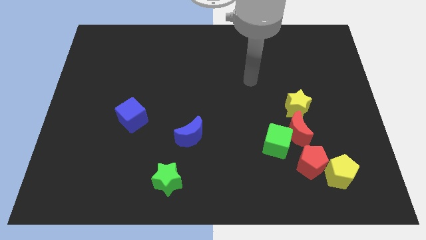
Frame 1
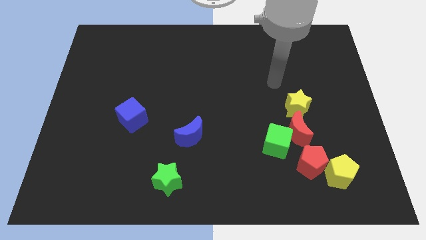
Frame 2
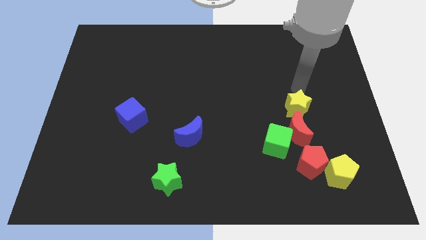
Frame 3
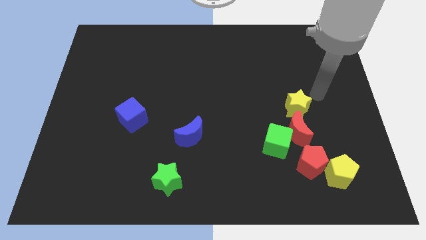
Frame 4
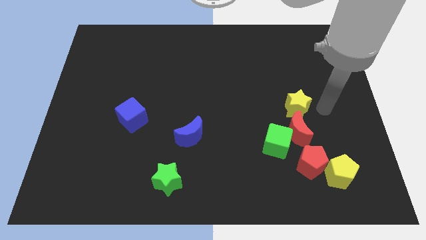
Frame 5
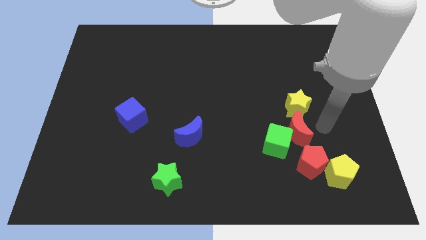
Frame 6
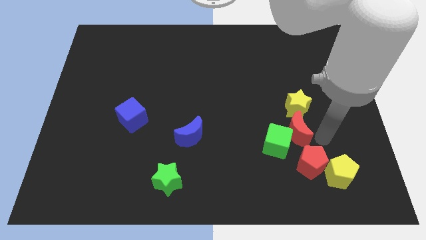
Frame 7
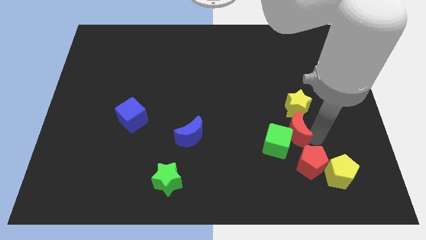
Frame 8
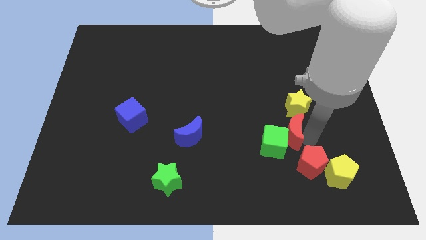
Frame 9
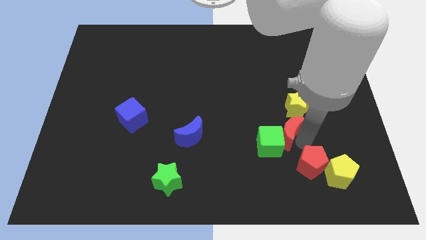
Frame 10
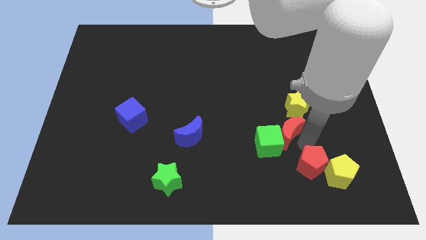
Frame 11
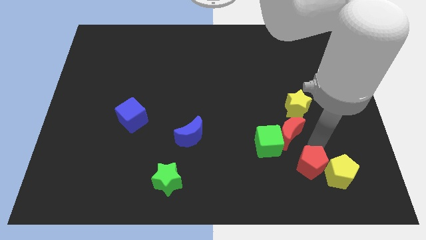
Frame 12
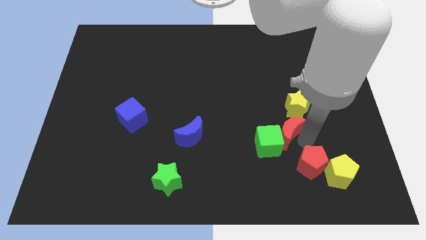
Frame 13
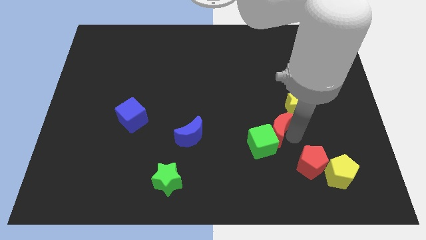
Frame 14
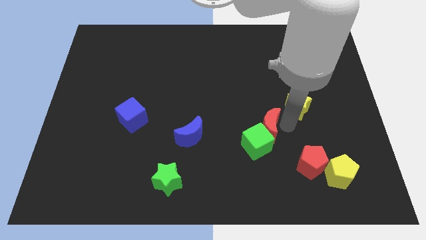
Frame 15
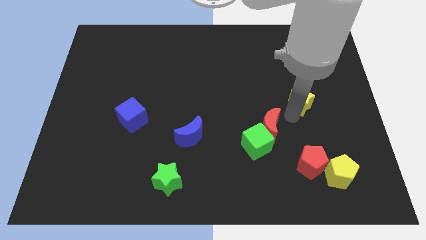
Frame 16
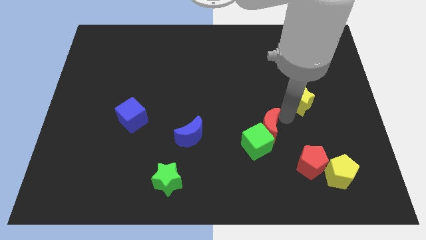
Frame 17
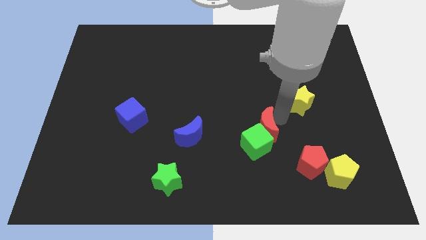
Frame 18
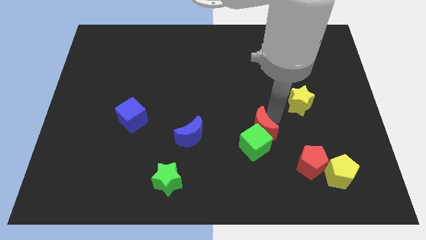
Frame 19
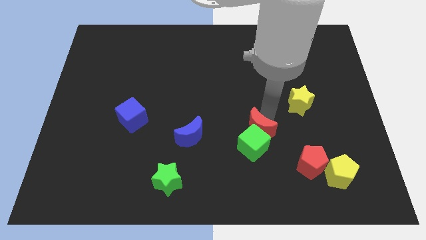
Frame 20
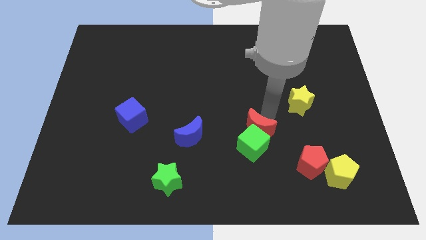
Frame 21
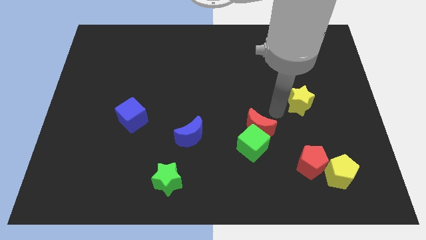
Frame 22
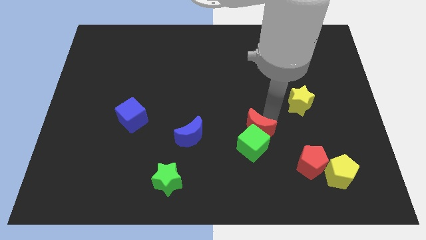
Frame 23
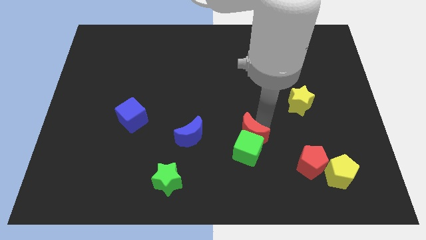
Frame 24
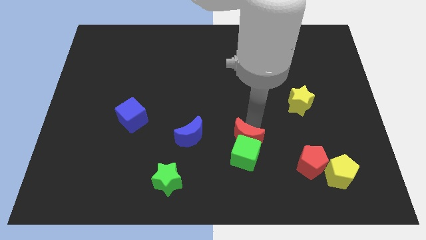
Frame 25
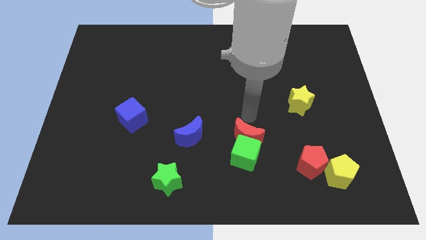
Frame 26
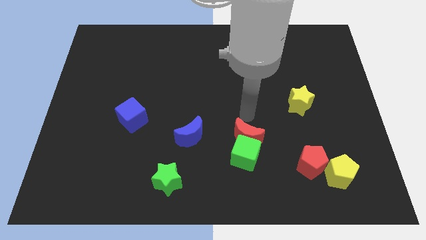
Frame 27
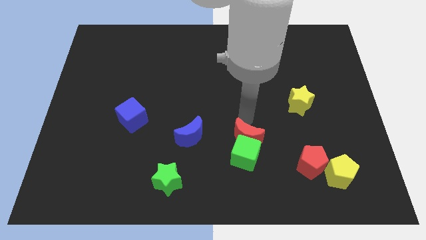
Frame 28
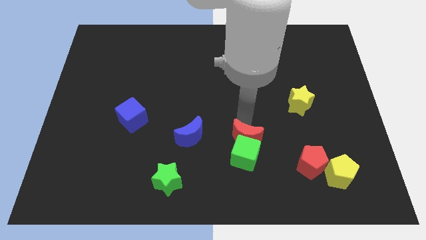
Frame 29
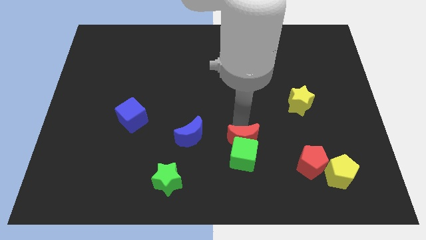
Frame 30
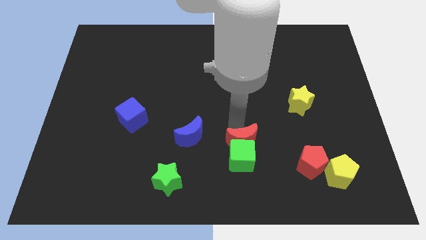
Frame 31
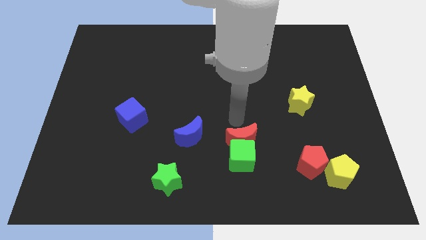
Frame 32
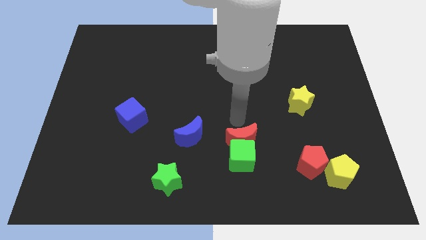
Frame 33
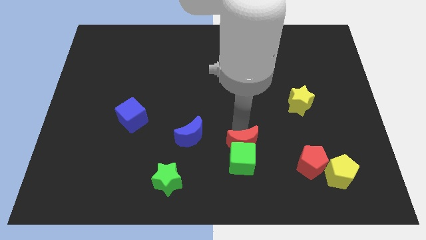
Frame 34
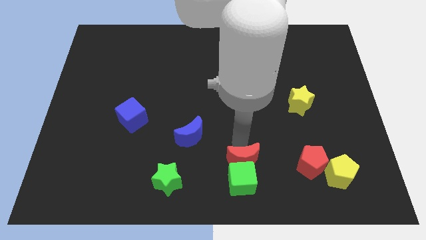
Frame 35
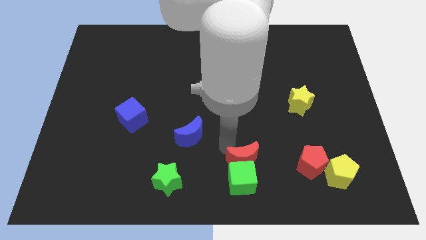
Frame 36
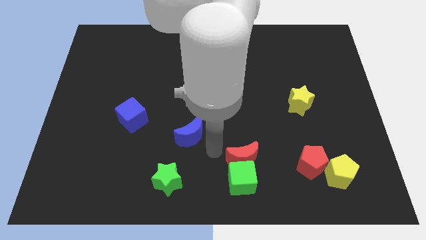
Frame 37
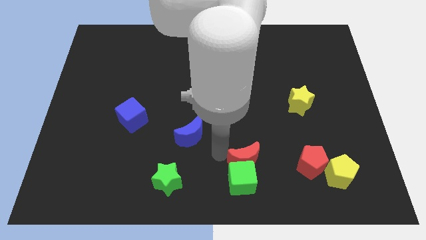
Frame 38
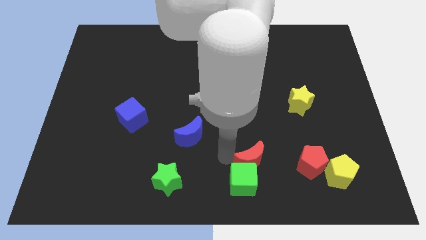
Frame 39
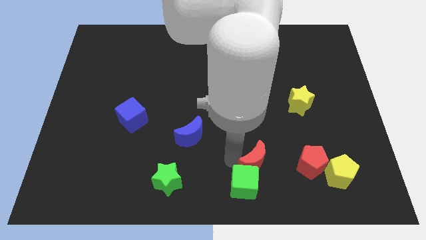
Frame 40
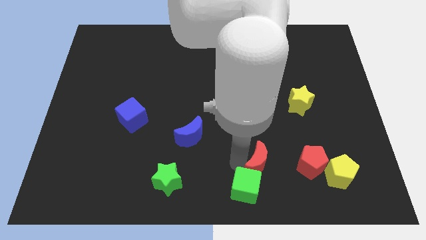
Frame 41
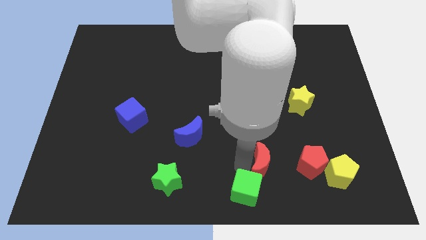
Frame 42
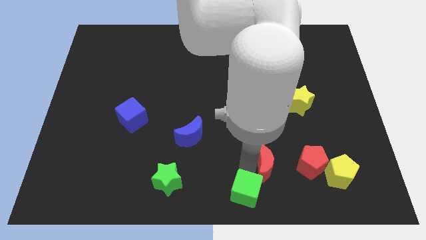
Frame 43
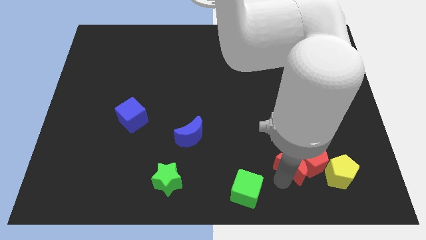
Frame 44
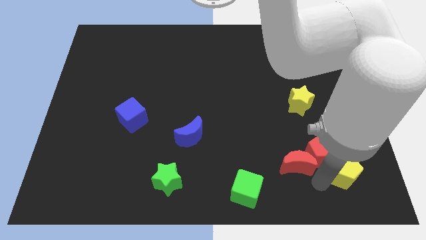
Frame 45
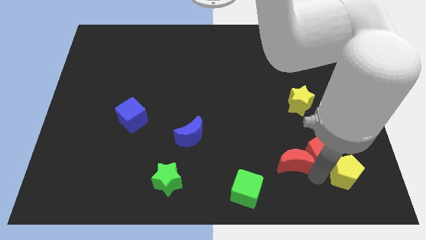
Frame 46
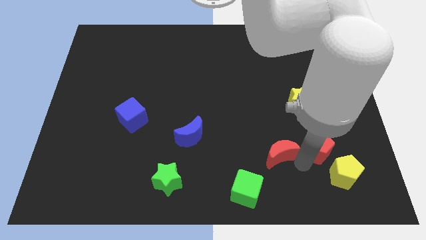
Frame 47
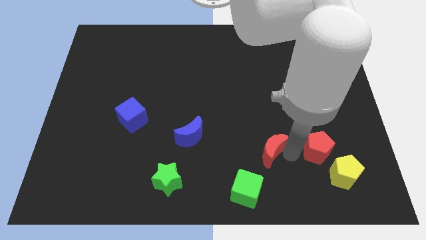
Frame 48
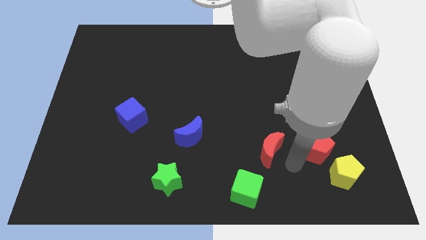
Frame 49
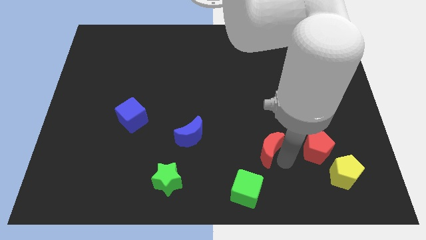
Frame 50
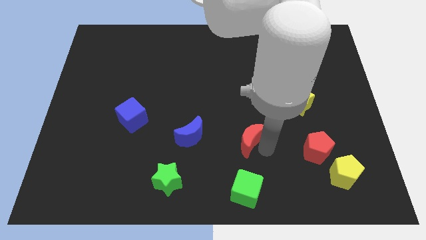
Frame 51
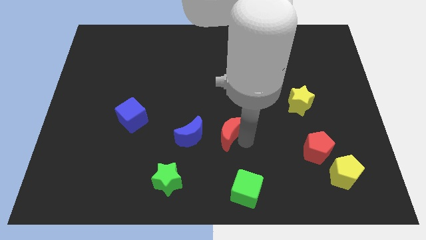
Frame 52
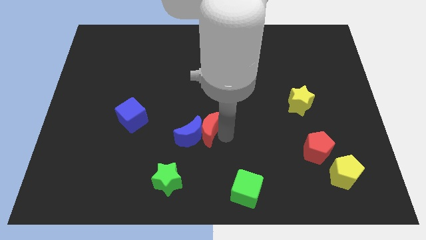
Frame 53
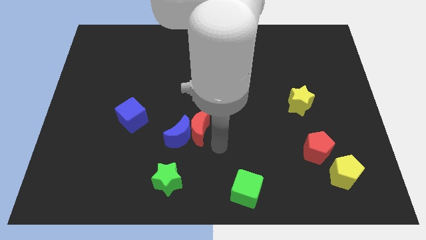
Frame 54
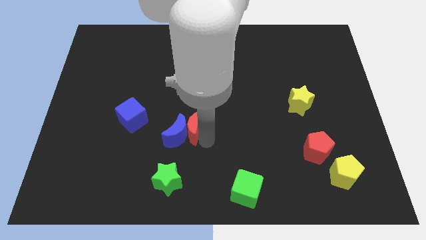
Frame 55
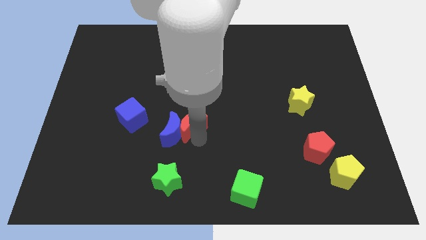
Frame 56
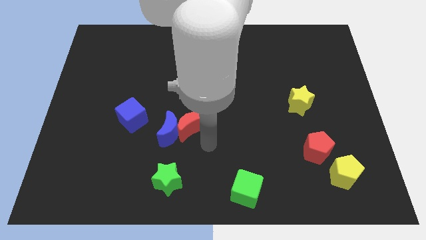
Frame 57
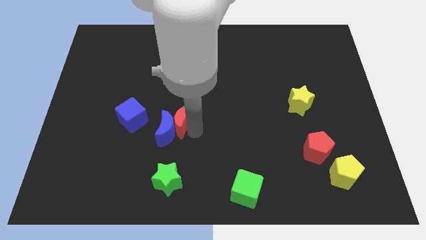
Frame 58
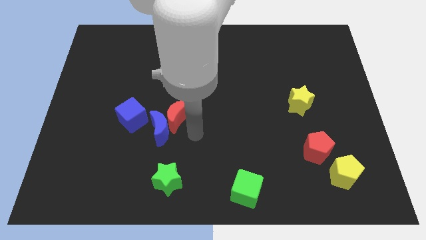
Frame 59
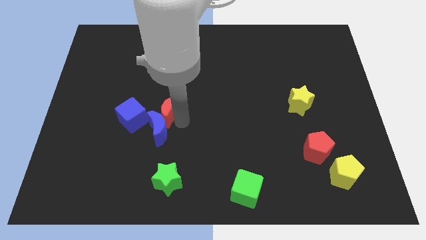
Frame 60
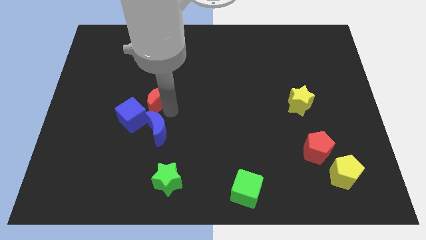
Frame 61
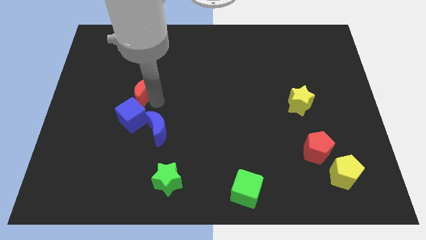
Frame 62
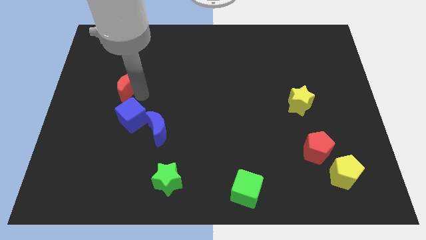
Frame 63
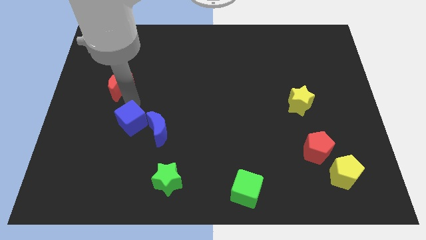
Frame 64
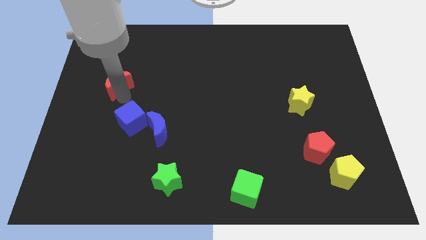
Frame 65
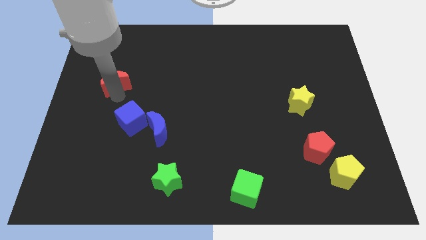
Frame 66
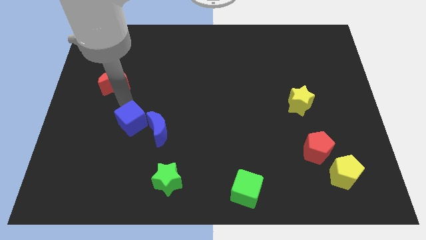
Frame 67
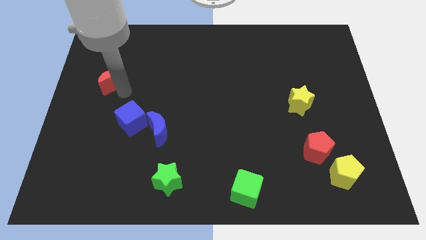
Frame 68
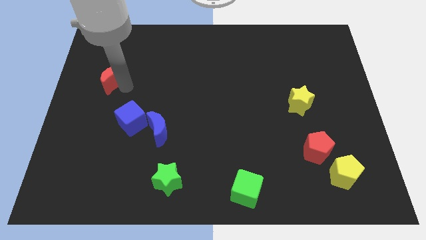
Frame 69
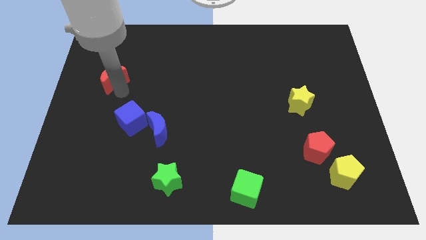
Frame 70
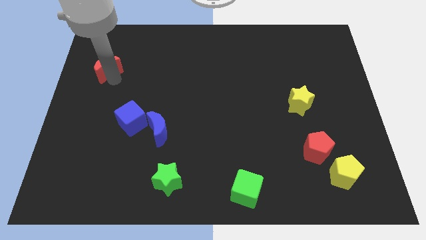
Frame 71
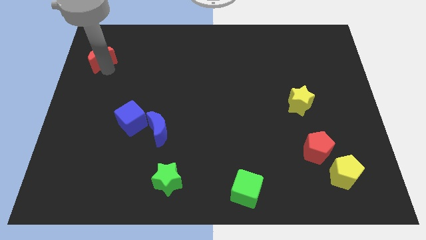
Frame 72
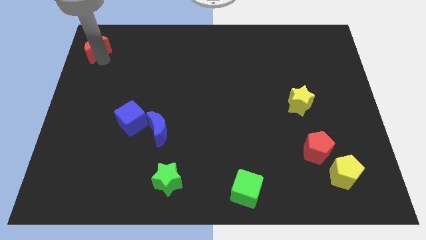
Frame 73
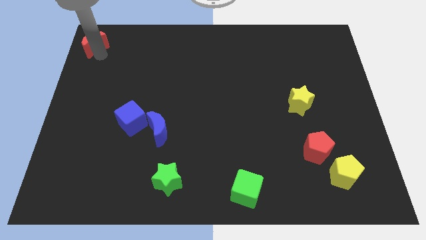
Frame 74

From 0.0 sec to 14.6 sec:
slide the red moon to the upper left corner
